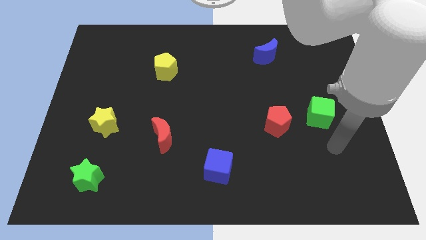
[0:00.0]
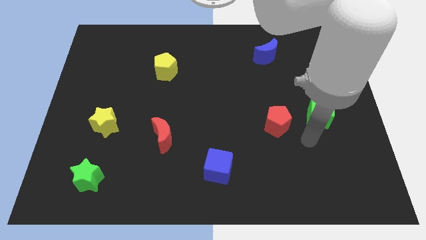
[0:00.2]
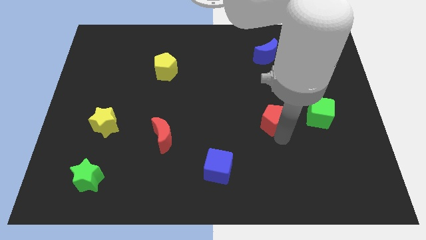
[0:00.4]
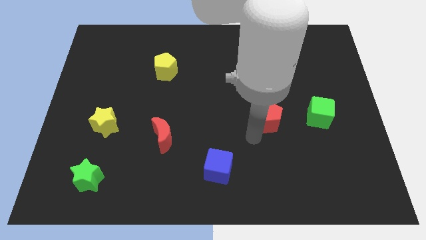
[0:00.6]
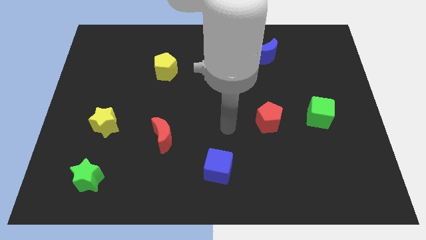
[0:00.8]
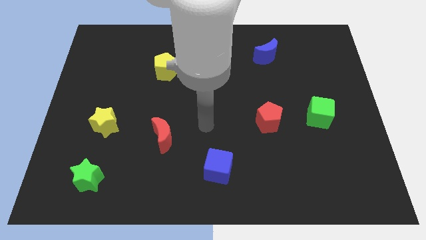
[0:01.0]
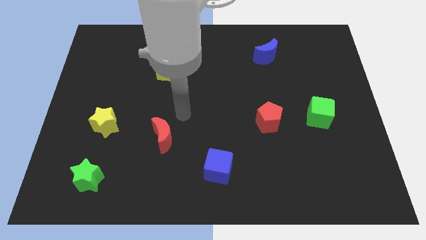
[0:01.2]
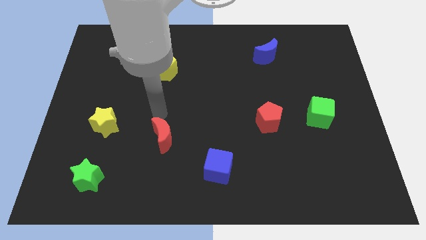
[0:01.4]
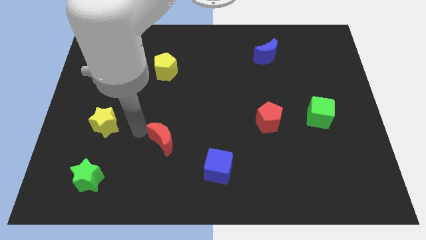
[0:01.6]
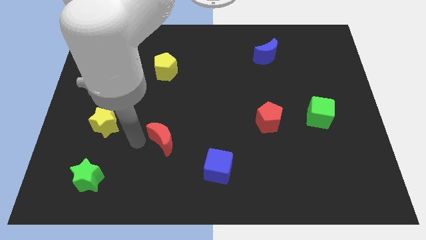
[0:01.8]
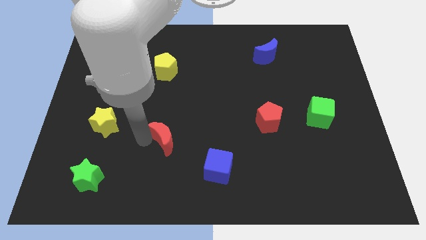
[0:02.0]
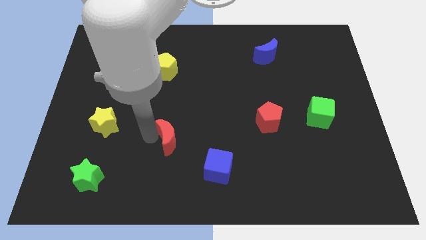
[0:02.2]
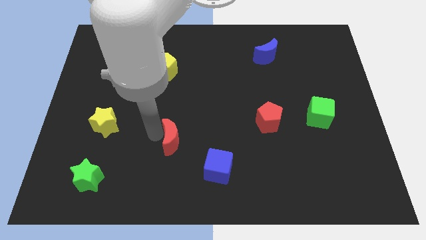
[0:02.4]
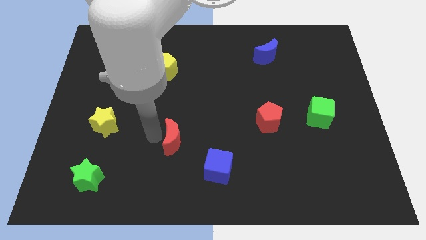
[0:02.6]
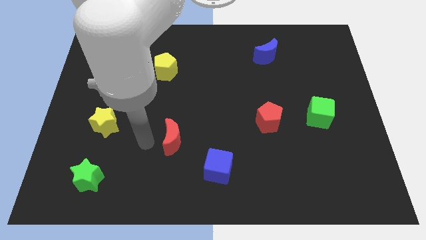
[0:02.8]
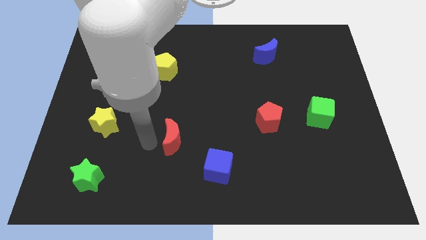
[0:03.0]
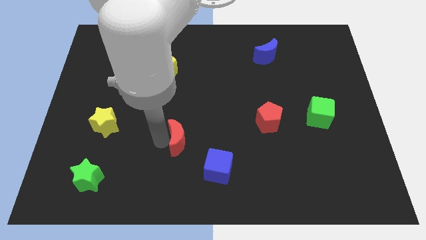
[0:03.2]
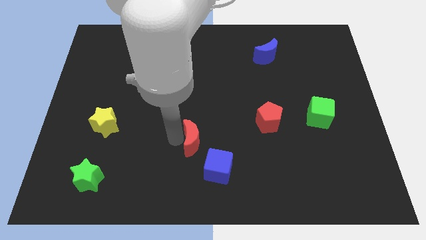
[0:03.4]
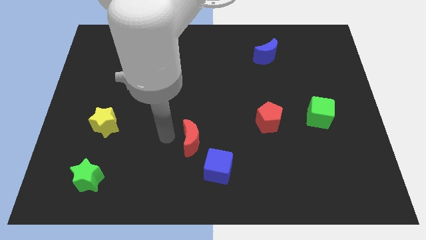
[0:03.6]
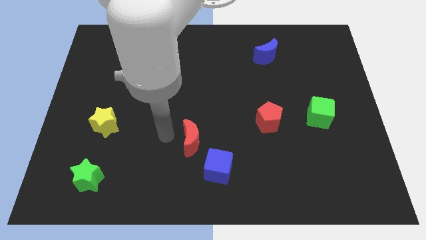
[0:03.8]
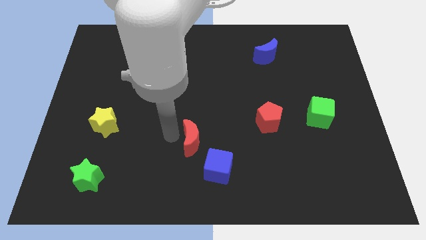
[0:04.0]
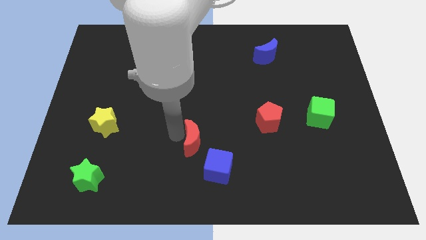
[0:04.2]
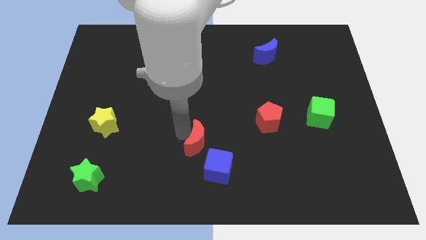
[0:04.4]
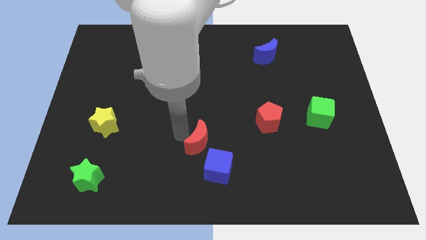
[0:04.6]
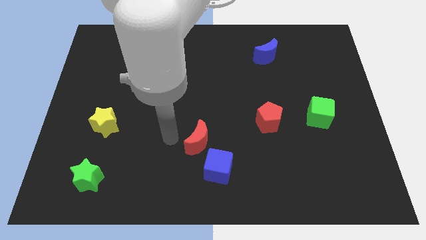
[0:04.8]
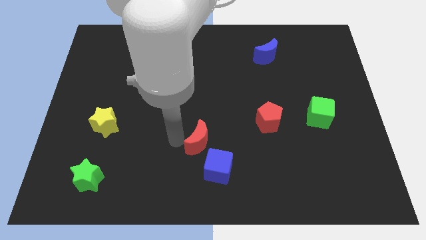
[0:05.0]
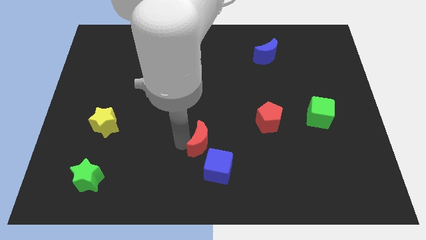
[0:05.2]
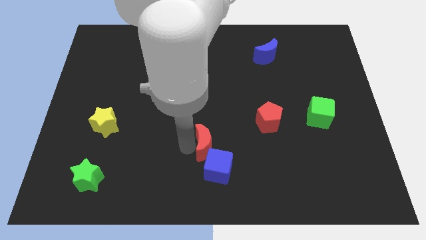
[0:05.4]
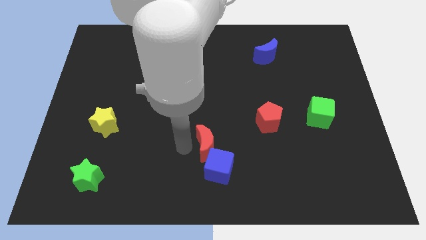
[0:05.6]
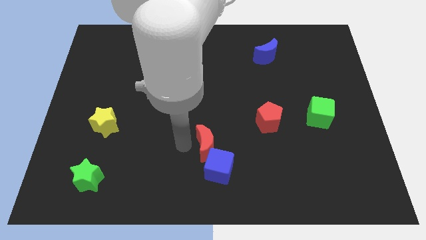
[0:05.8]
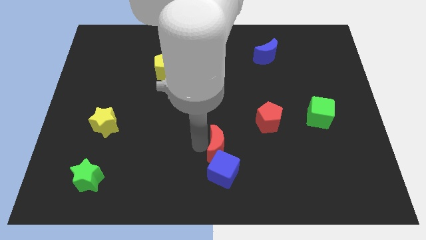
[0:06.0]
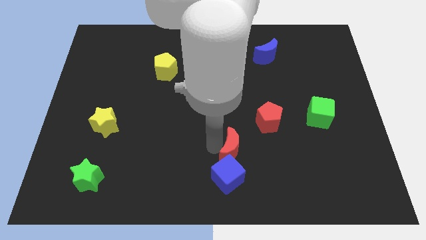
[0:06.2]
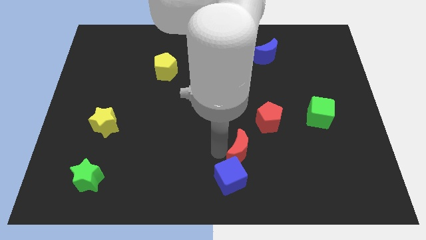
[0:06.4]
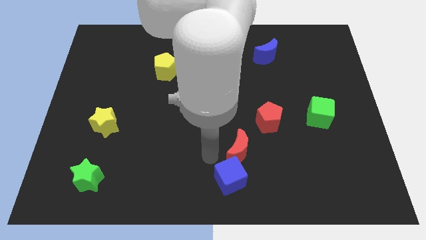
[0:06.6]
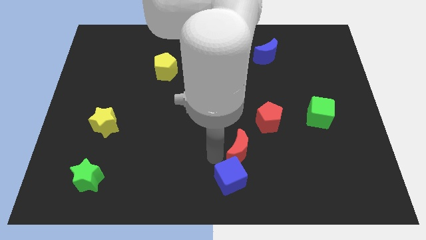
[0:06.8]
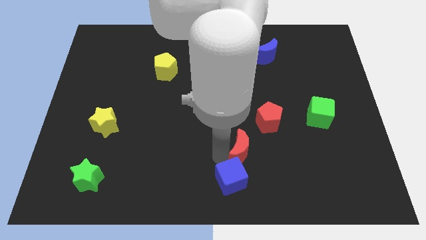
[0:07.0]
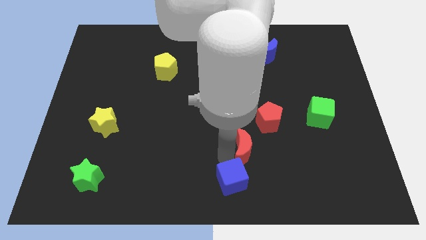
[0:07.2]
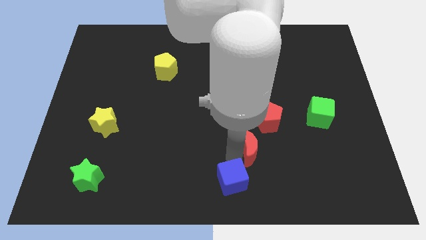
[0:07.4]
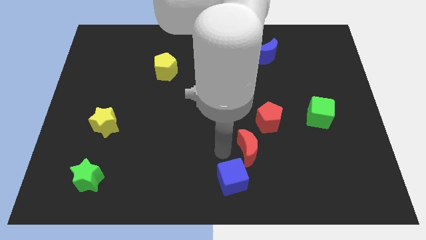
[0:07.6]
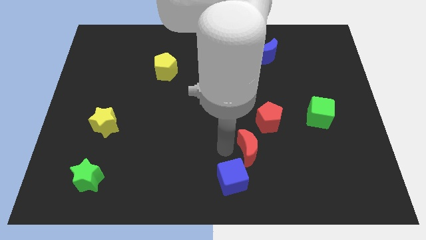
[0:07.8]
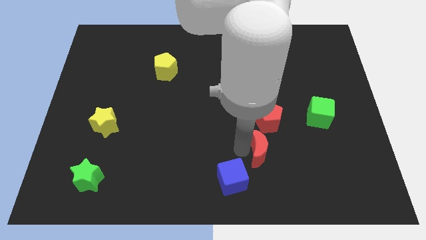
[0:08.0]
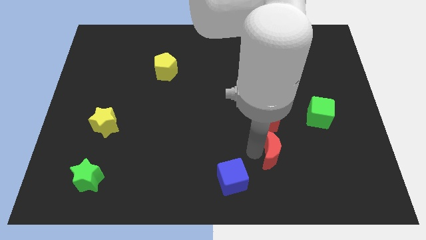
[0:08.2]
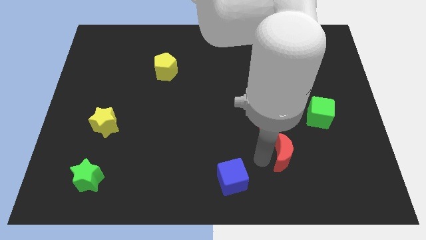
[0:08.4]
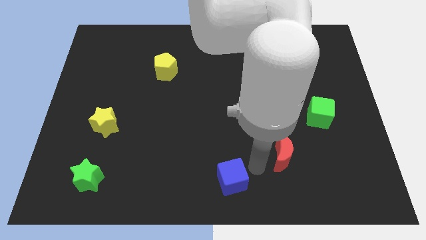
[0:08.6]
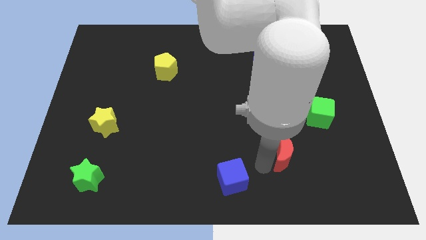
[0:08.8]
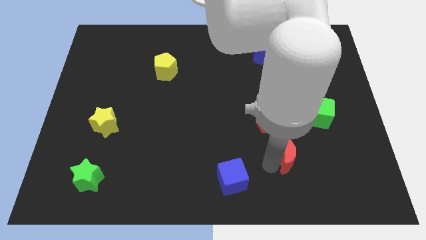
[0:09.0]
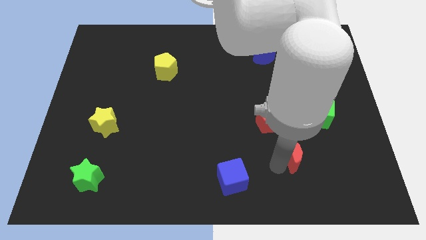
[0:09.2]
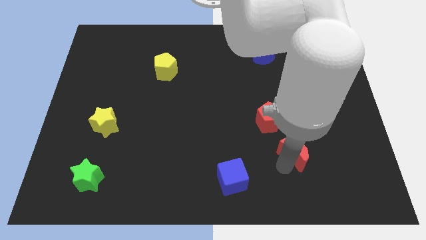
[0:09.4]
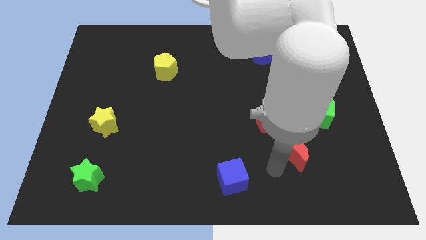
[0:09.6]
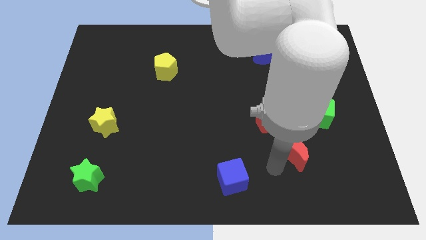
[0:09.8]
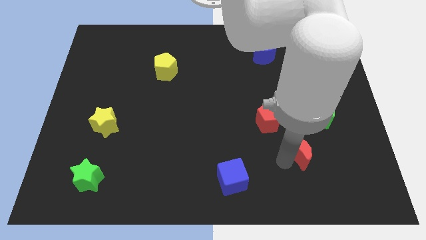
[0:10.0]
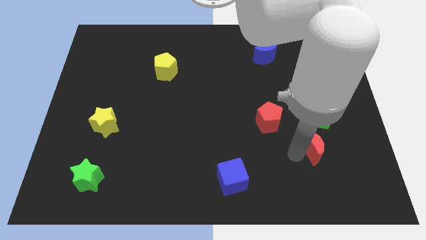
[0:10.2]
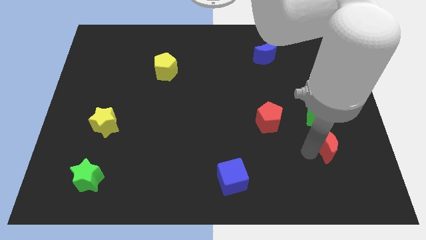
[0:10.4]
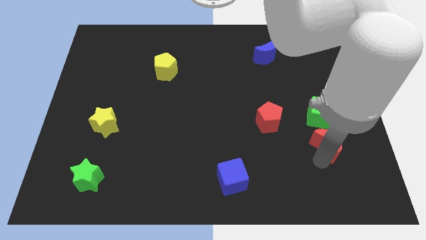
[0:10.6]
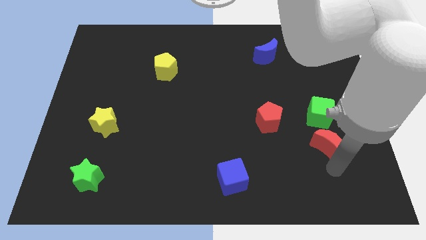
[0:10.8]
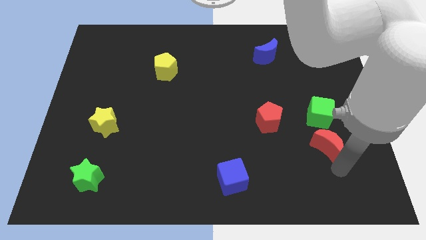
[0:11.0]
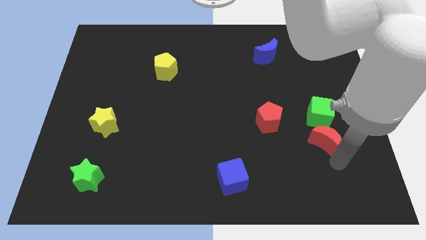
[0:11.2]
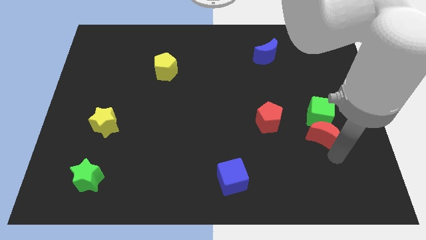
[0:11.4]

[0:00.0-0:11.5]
put the red moon right of the red pentagon

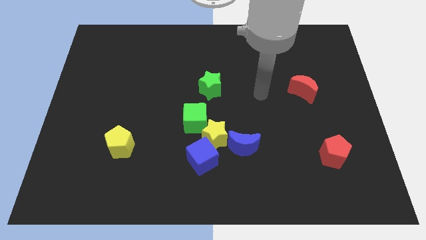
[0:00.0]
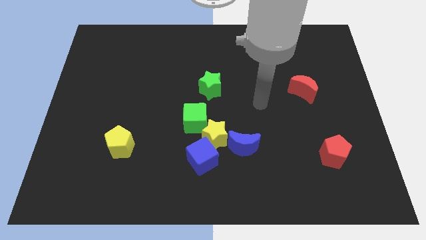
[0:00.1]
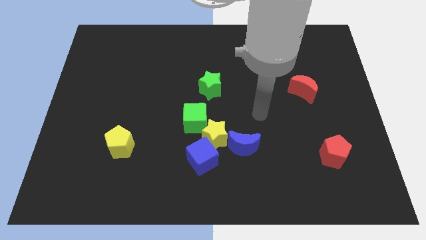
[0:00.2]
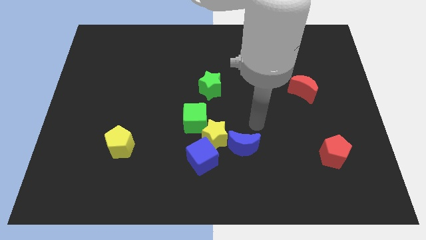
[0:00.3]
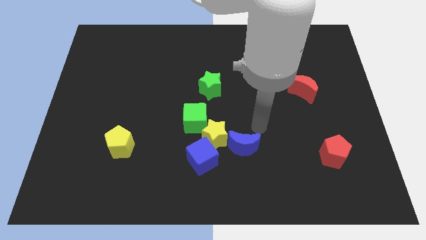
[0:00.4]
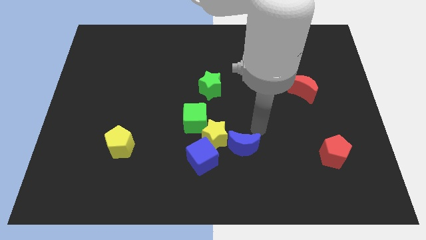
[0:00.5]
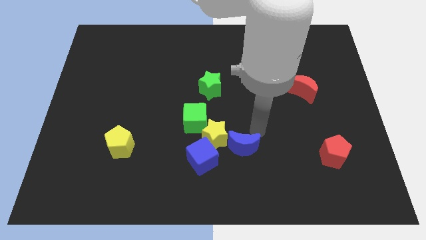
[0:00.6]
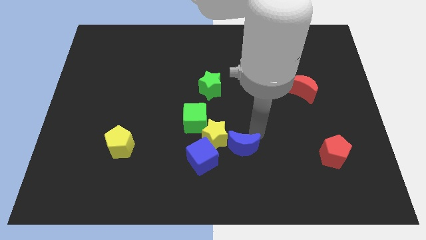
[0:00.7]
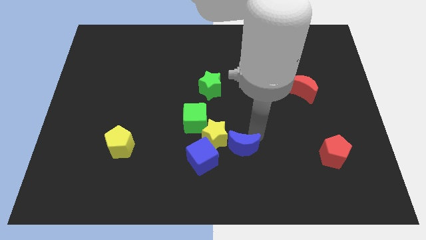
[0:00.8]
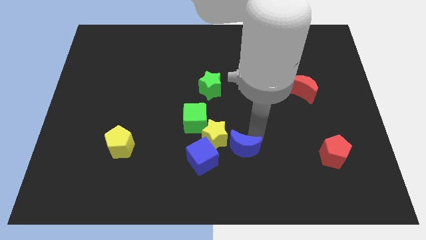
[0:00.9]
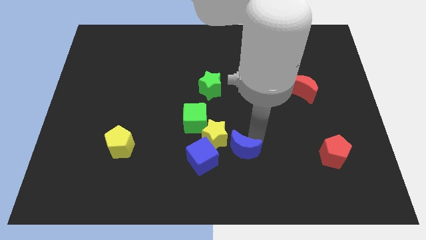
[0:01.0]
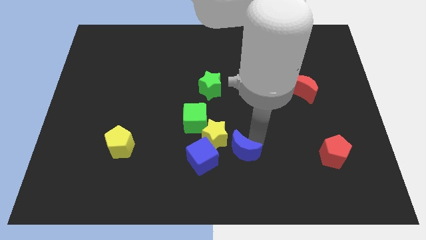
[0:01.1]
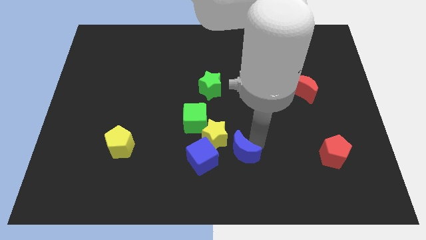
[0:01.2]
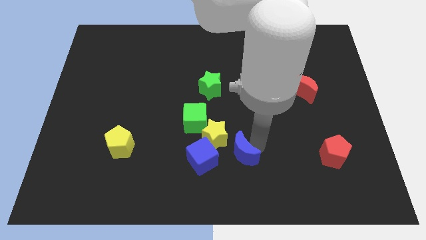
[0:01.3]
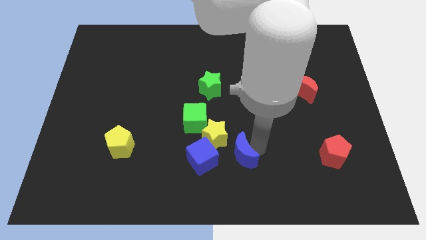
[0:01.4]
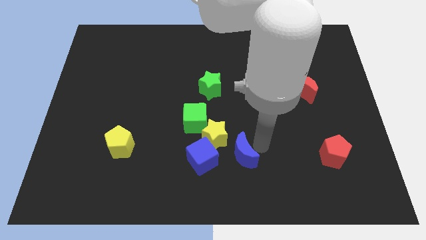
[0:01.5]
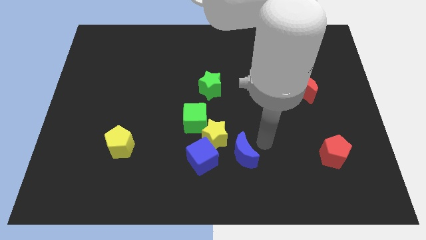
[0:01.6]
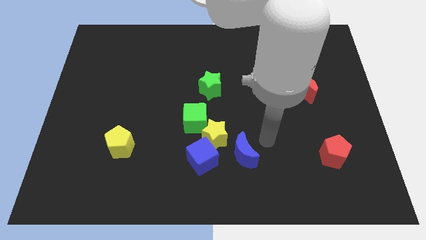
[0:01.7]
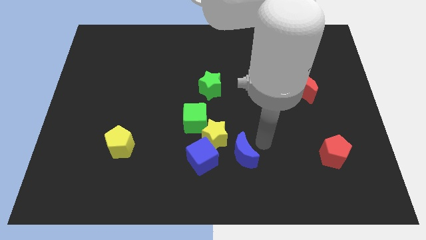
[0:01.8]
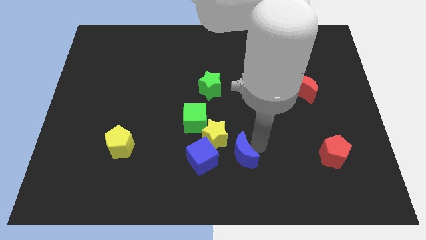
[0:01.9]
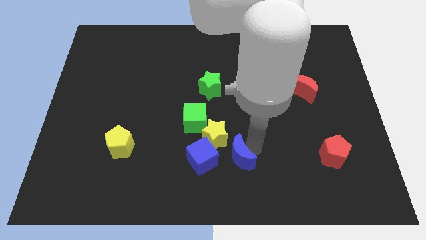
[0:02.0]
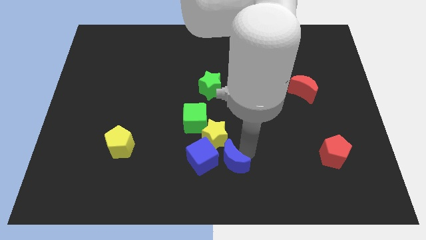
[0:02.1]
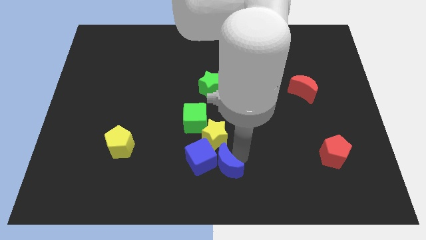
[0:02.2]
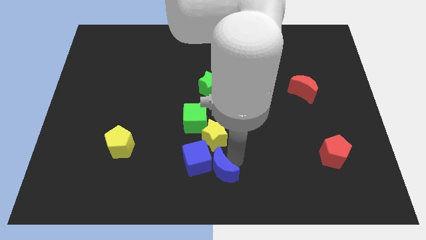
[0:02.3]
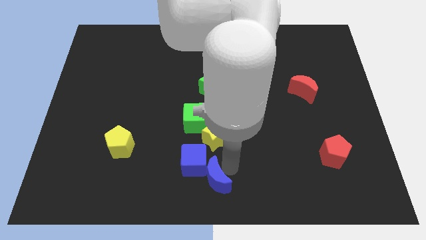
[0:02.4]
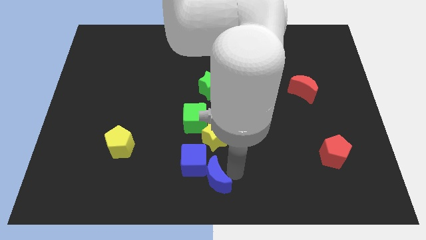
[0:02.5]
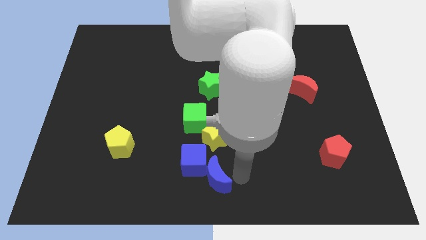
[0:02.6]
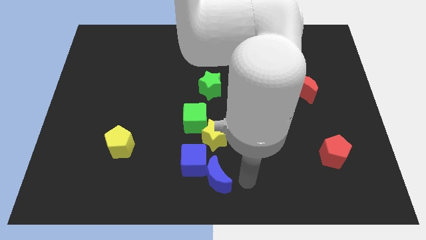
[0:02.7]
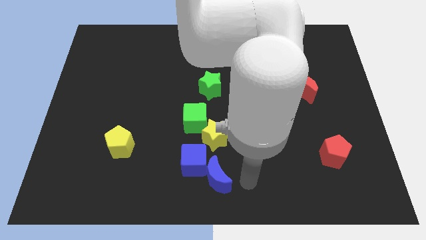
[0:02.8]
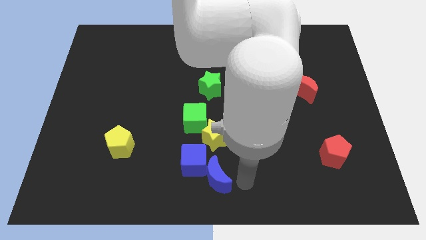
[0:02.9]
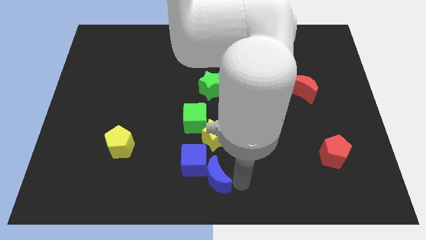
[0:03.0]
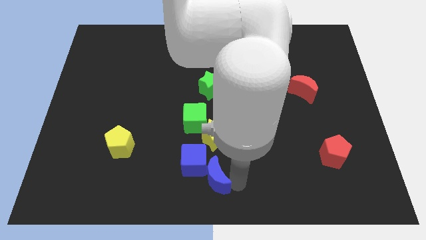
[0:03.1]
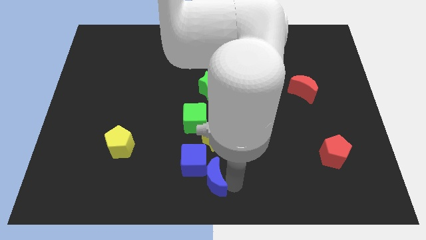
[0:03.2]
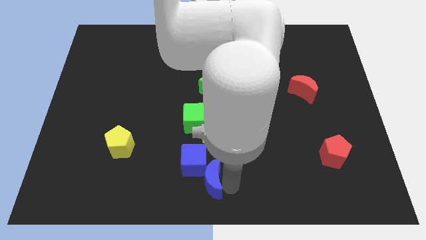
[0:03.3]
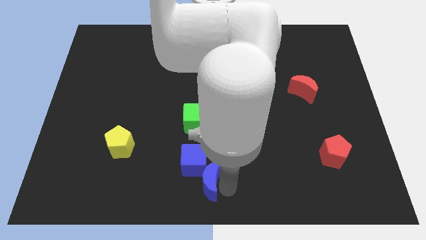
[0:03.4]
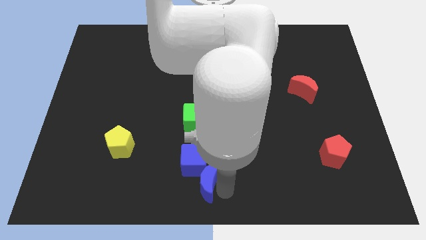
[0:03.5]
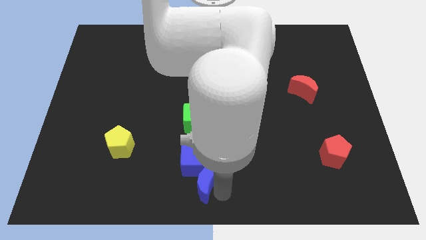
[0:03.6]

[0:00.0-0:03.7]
put the blue moon to the bottom side of the green cube
